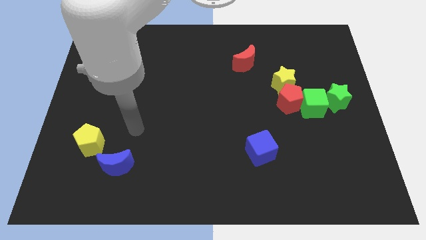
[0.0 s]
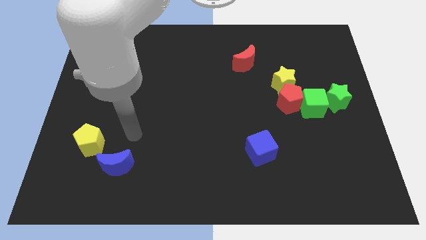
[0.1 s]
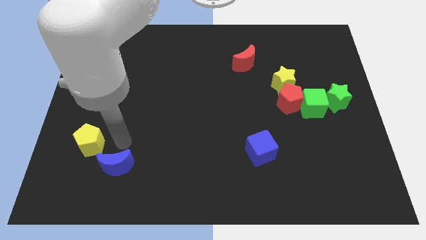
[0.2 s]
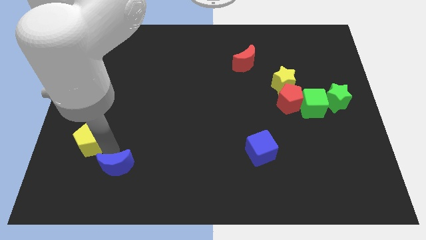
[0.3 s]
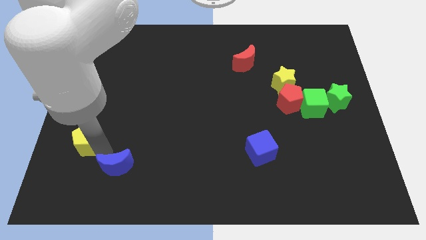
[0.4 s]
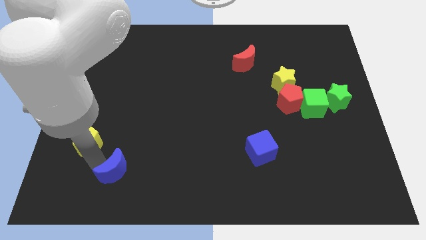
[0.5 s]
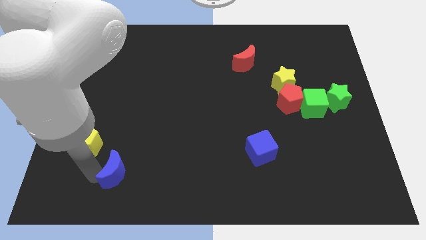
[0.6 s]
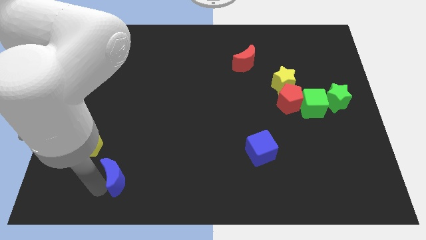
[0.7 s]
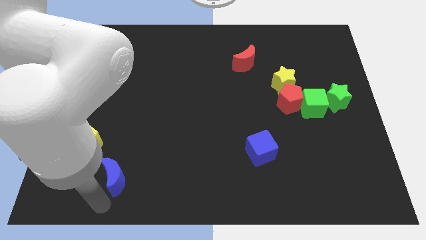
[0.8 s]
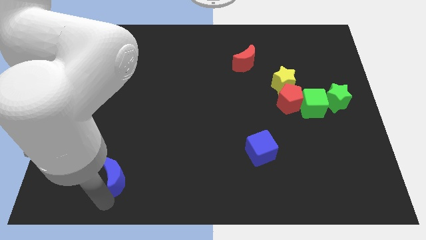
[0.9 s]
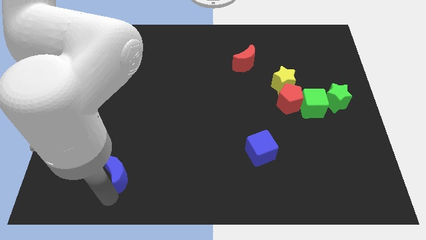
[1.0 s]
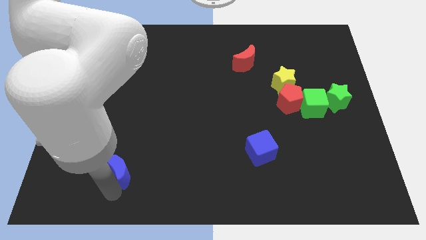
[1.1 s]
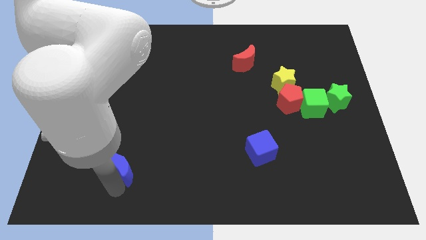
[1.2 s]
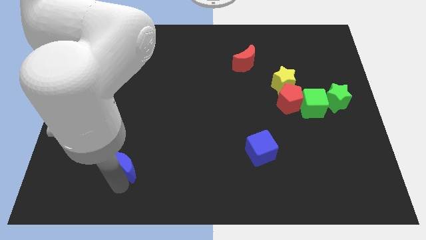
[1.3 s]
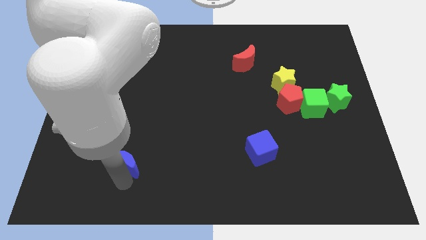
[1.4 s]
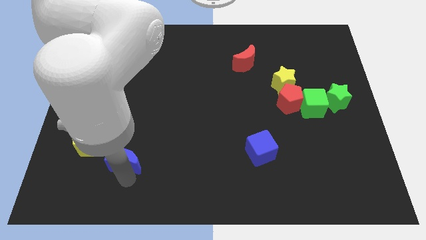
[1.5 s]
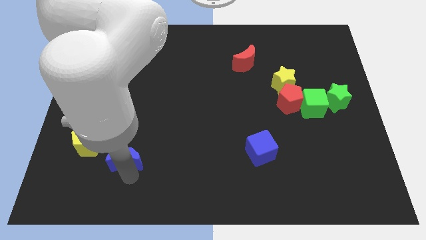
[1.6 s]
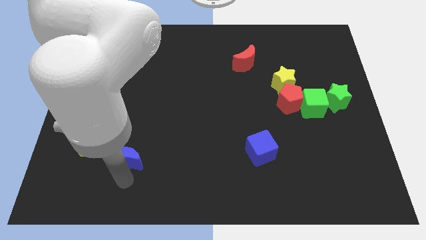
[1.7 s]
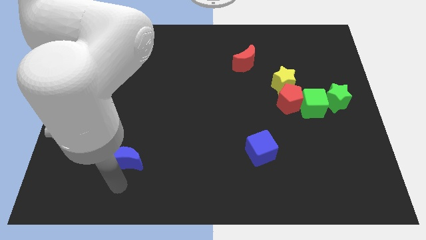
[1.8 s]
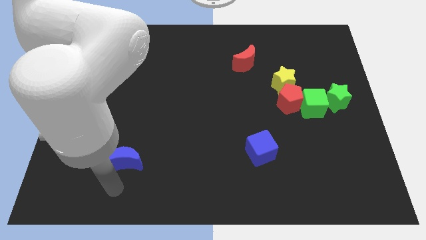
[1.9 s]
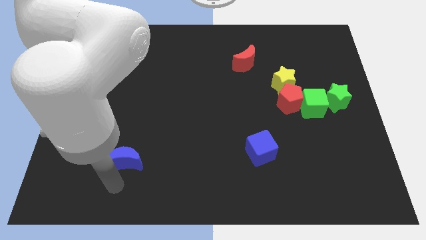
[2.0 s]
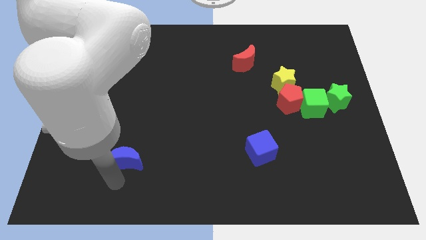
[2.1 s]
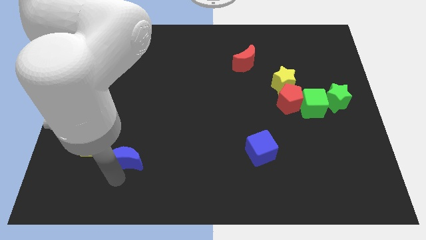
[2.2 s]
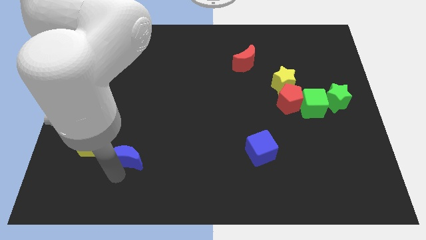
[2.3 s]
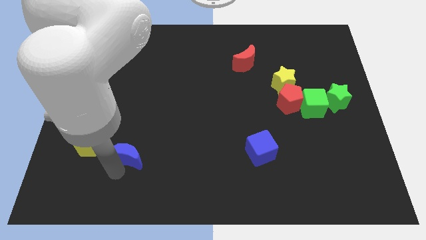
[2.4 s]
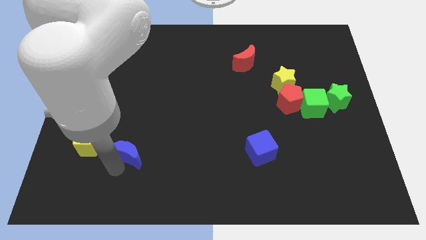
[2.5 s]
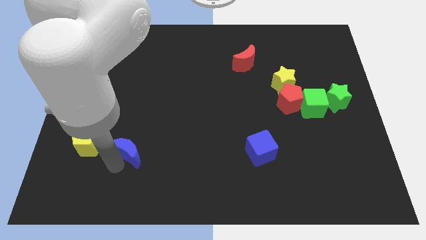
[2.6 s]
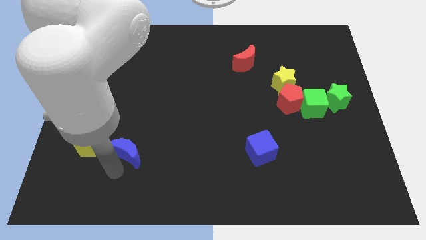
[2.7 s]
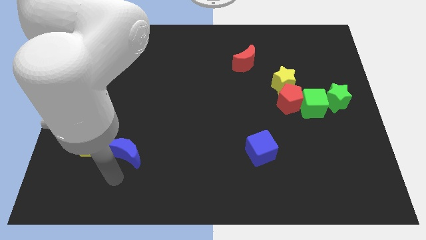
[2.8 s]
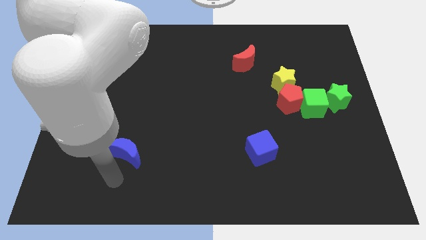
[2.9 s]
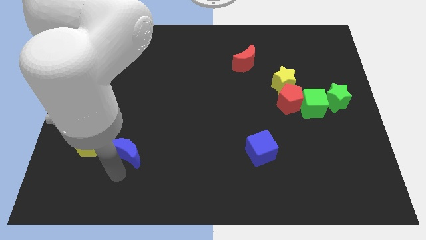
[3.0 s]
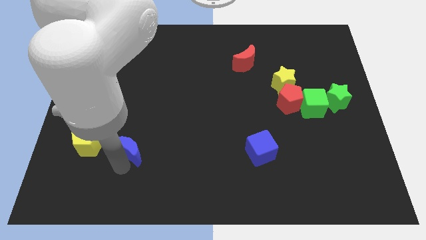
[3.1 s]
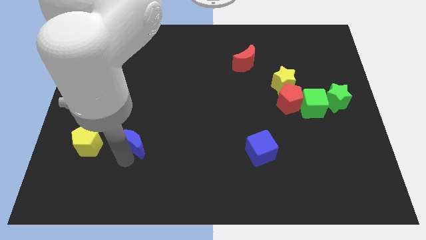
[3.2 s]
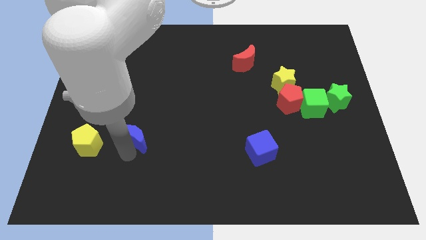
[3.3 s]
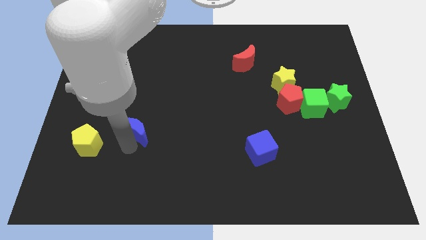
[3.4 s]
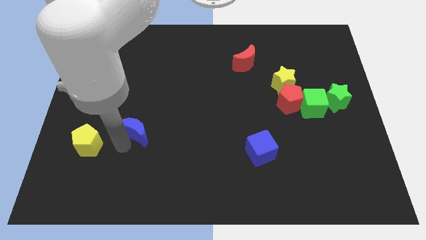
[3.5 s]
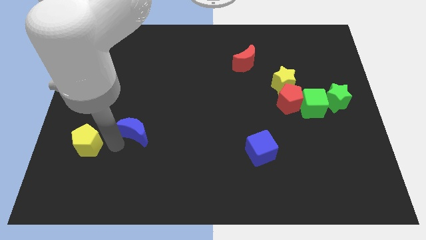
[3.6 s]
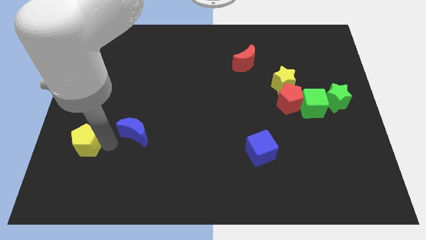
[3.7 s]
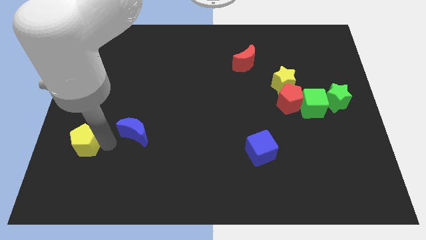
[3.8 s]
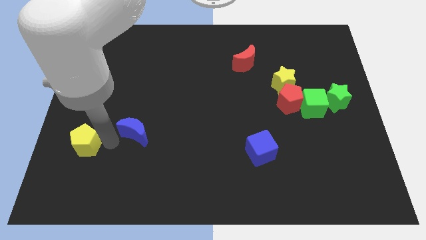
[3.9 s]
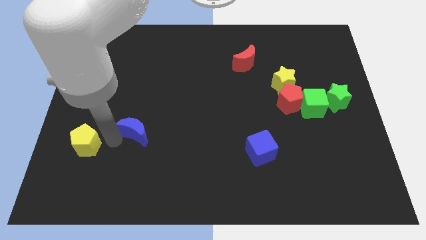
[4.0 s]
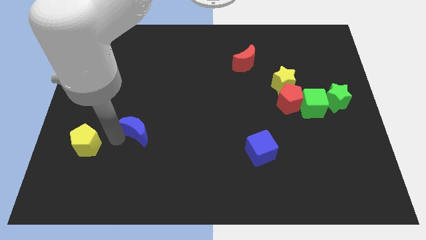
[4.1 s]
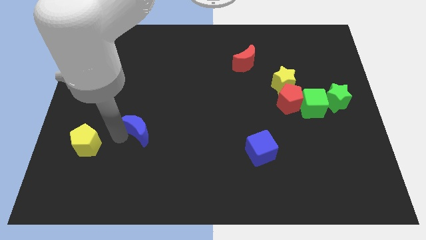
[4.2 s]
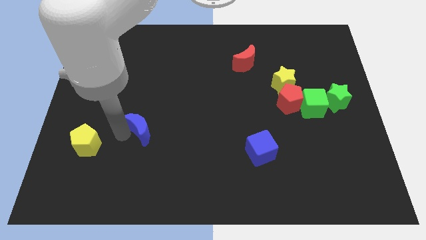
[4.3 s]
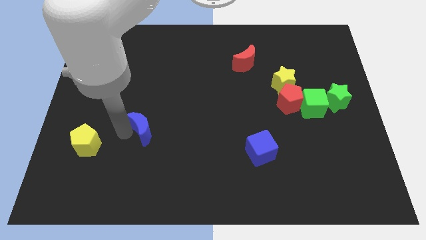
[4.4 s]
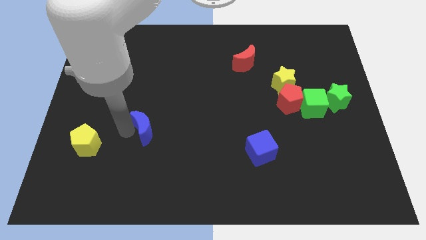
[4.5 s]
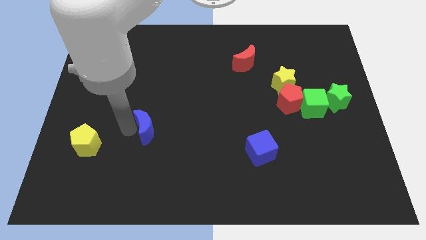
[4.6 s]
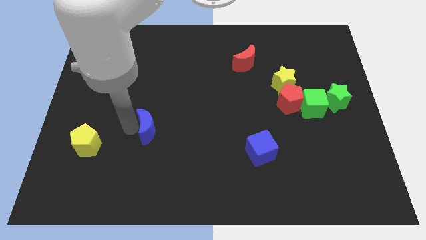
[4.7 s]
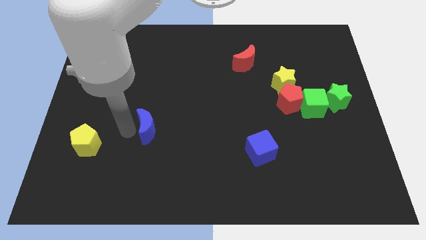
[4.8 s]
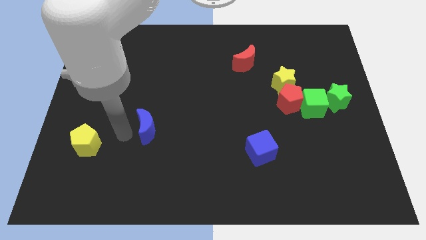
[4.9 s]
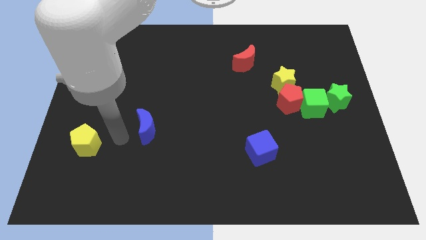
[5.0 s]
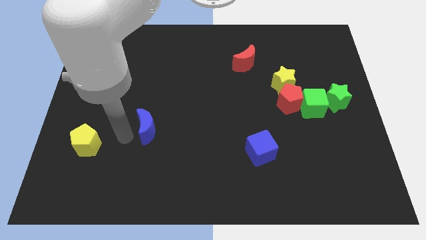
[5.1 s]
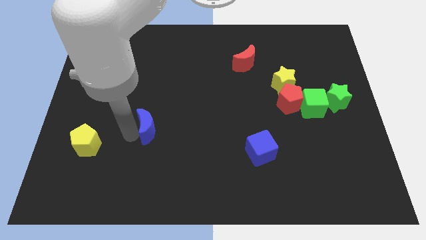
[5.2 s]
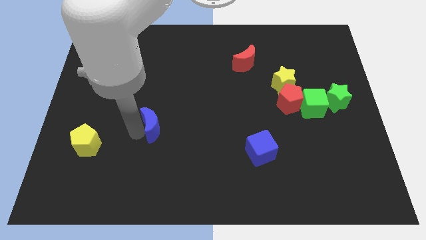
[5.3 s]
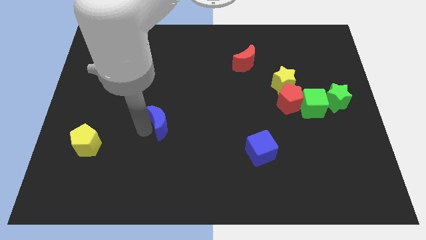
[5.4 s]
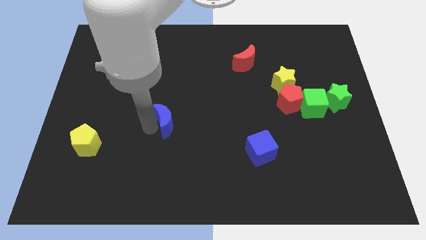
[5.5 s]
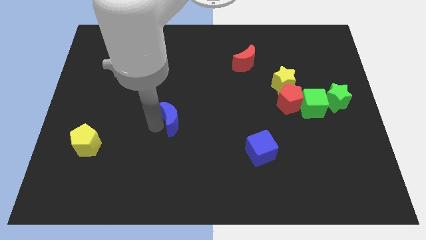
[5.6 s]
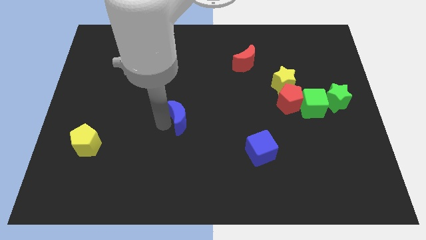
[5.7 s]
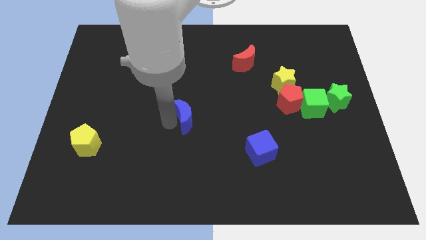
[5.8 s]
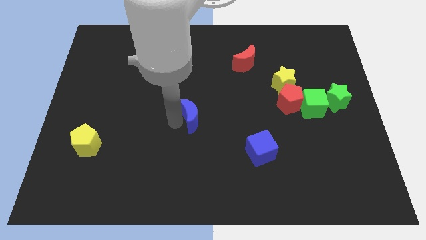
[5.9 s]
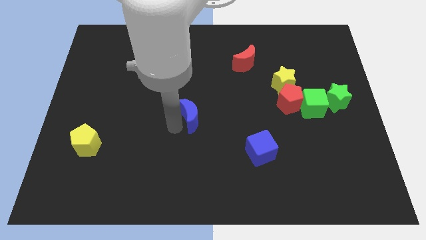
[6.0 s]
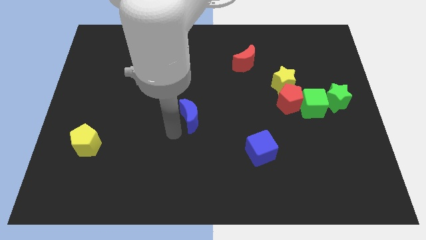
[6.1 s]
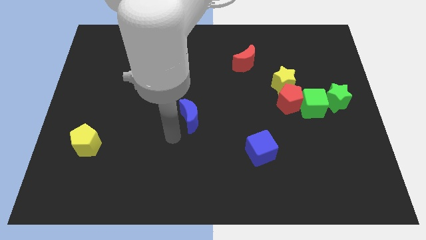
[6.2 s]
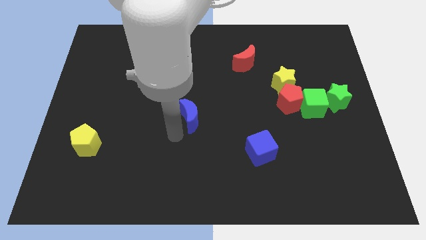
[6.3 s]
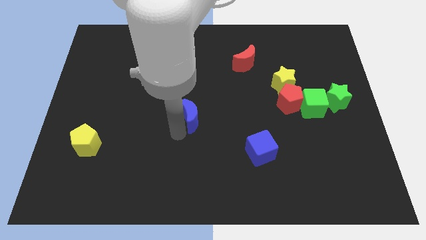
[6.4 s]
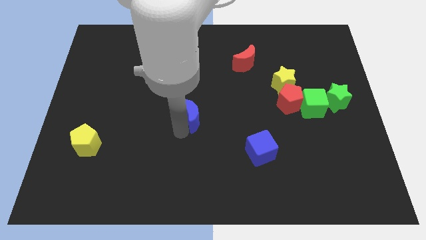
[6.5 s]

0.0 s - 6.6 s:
push the blue moon upwards and to the right

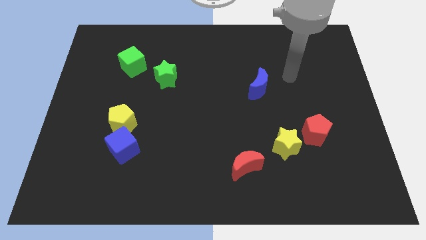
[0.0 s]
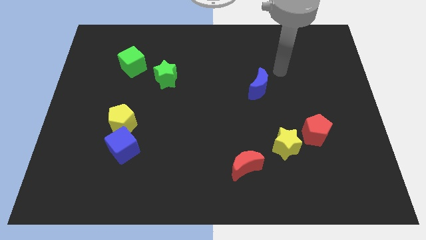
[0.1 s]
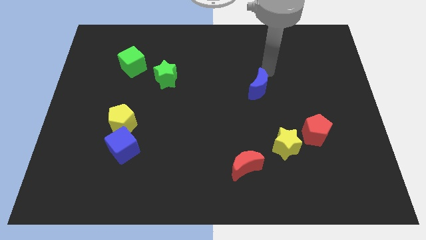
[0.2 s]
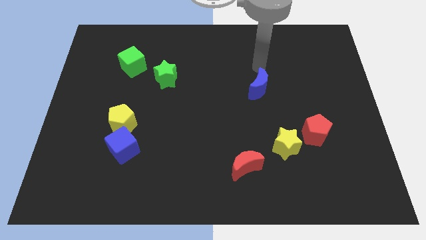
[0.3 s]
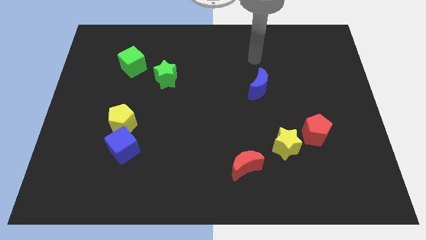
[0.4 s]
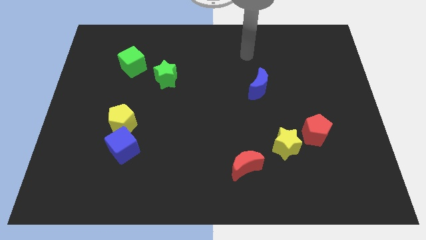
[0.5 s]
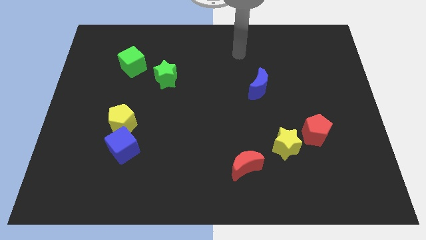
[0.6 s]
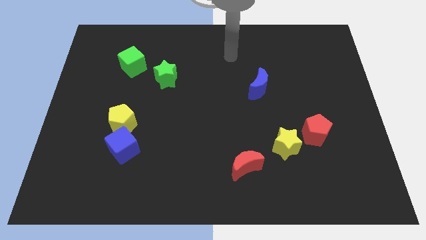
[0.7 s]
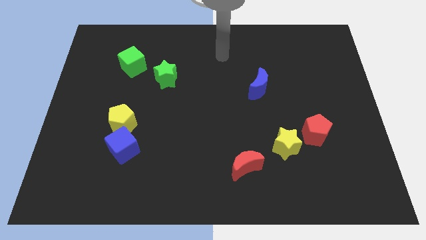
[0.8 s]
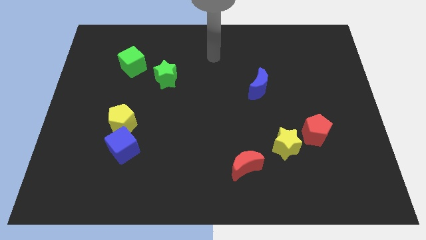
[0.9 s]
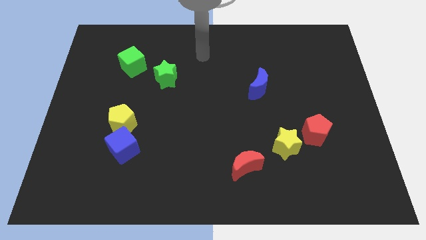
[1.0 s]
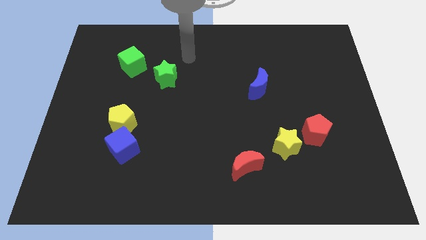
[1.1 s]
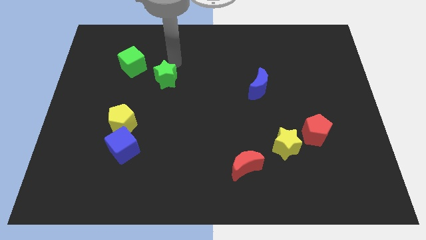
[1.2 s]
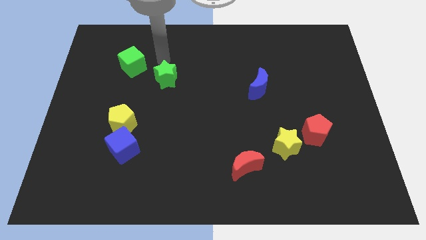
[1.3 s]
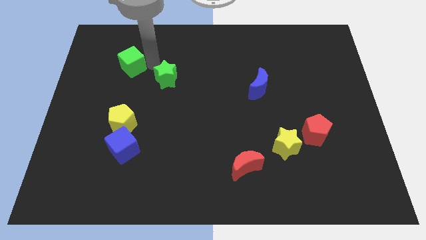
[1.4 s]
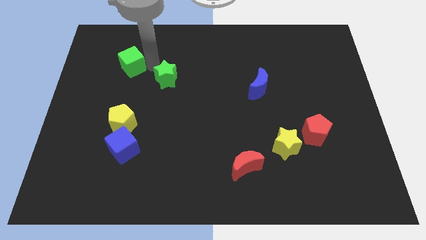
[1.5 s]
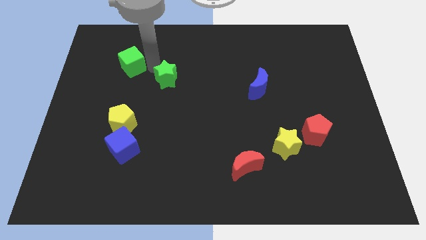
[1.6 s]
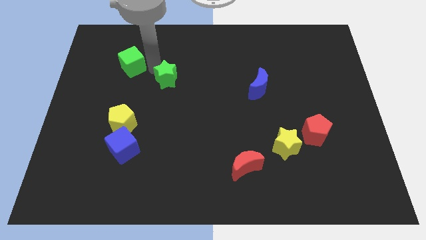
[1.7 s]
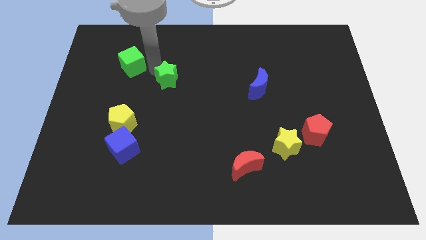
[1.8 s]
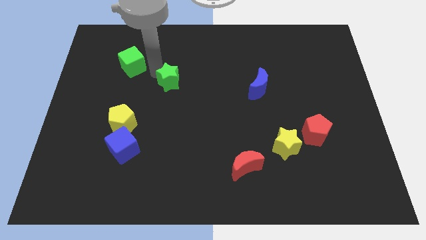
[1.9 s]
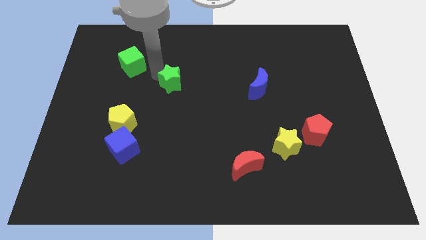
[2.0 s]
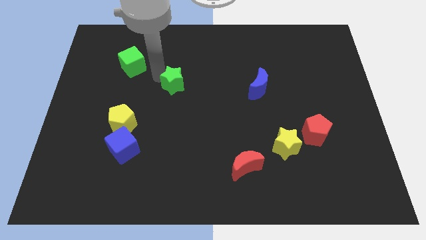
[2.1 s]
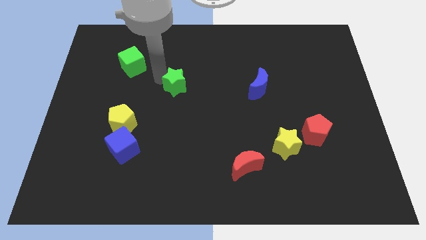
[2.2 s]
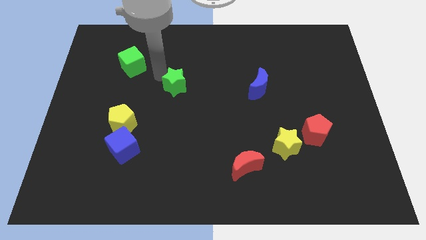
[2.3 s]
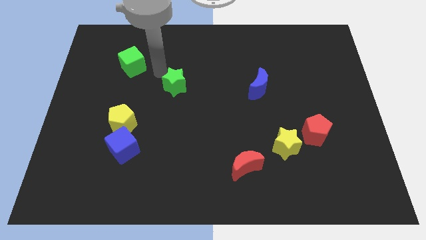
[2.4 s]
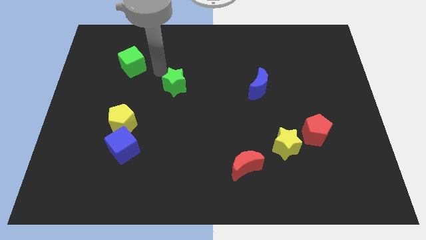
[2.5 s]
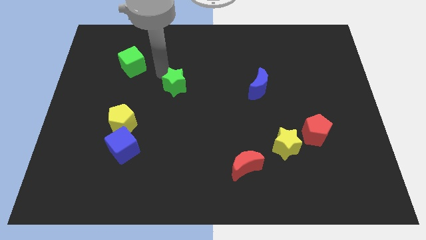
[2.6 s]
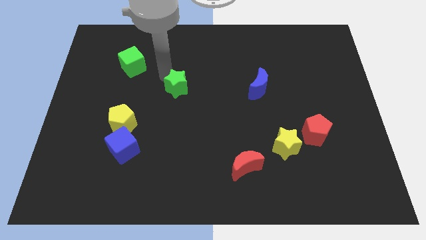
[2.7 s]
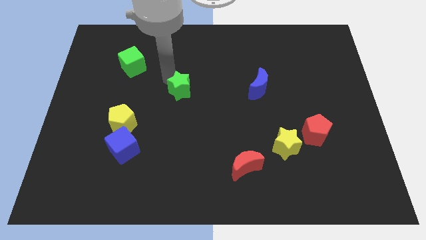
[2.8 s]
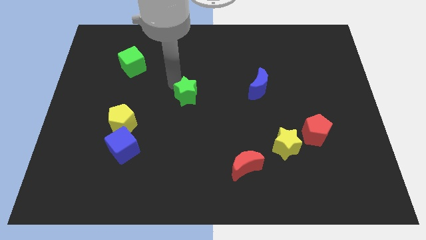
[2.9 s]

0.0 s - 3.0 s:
slide the green star somewhat downwards and right
